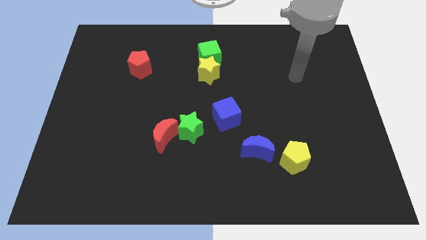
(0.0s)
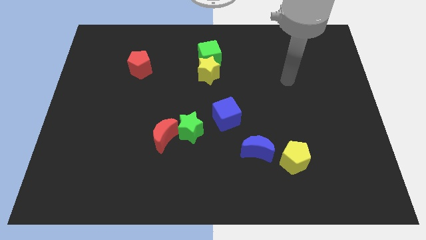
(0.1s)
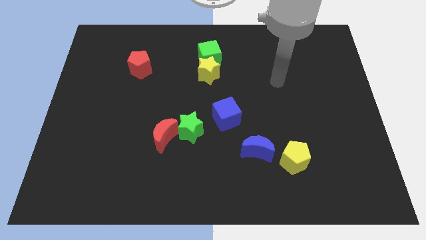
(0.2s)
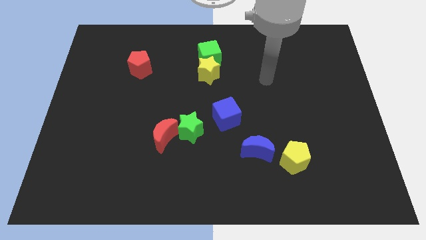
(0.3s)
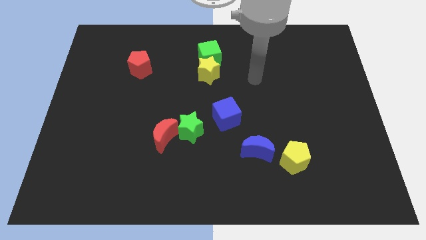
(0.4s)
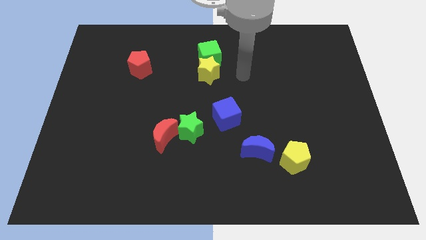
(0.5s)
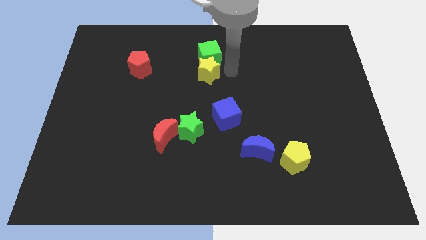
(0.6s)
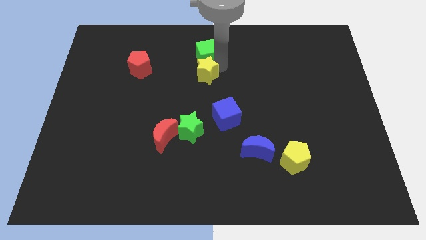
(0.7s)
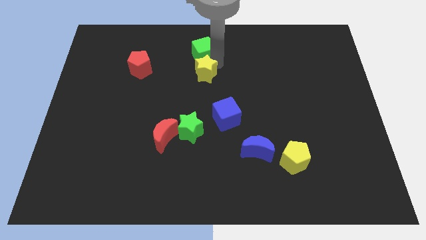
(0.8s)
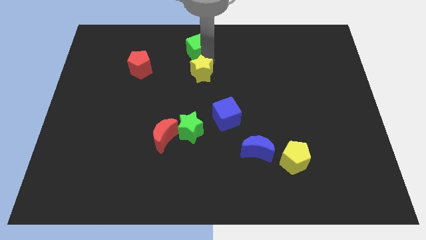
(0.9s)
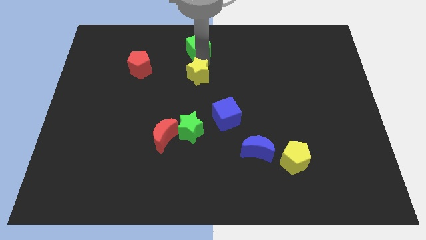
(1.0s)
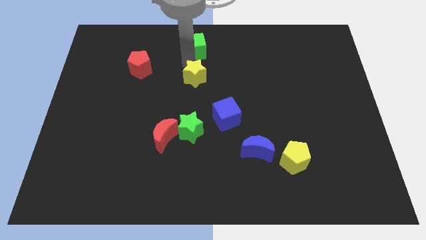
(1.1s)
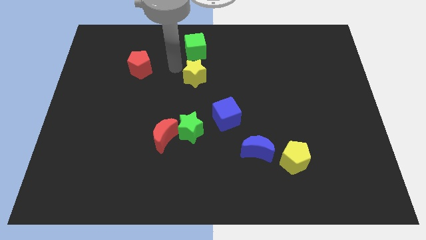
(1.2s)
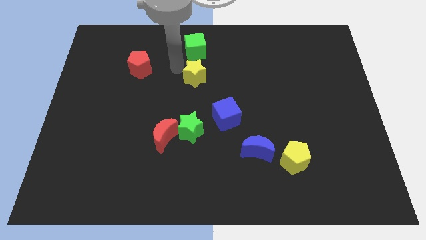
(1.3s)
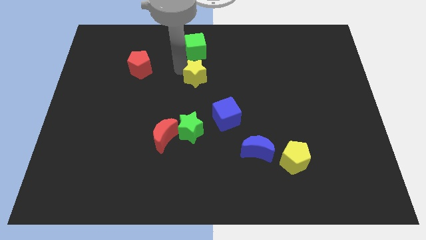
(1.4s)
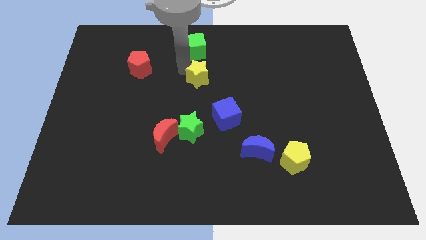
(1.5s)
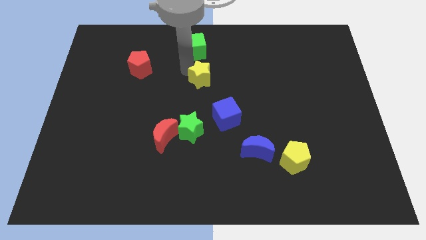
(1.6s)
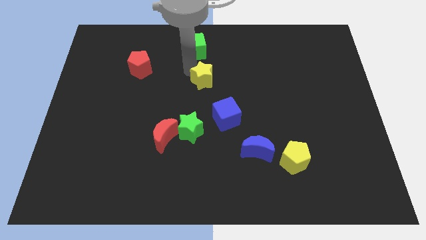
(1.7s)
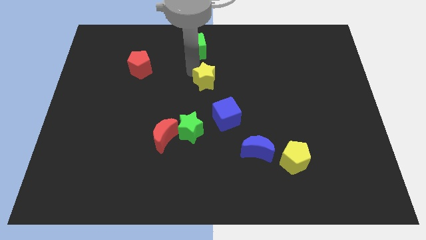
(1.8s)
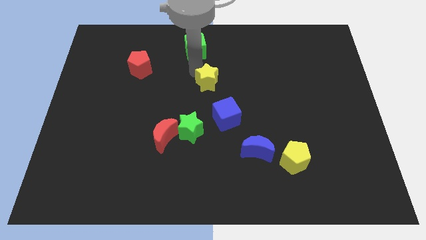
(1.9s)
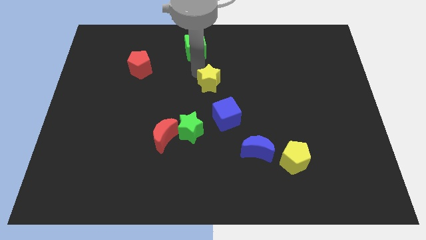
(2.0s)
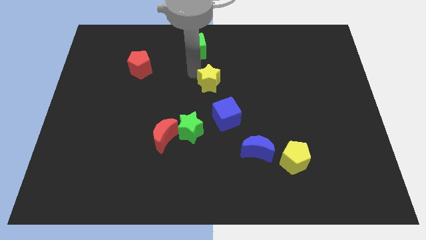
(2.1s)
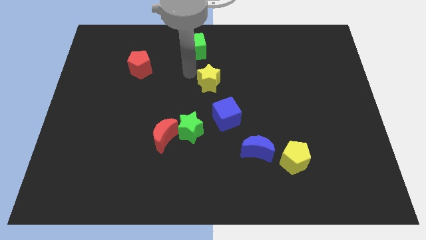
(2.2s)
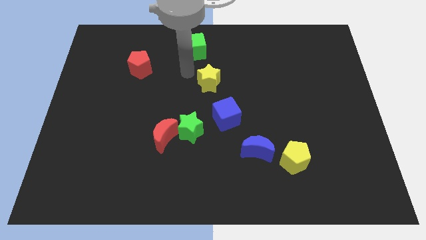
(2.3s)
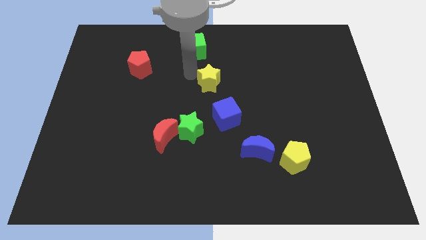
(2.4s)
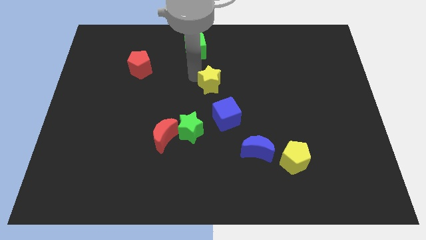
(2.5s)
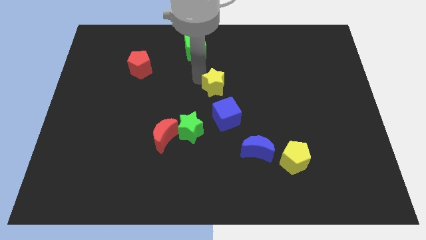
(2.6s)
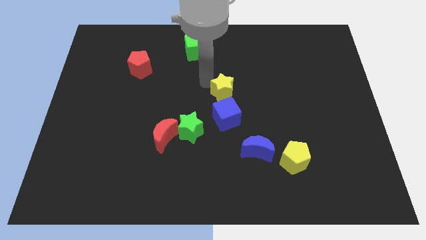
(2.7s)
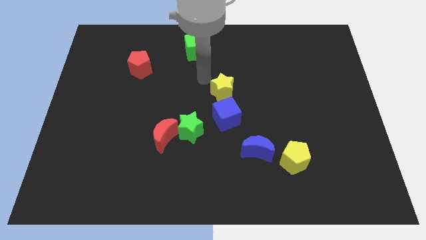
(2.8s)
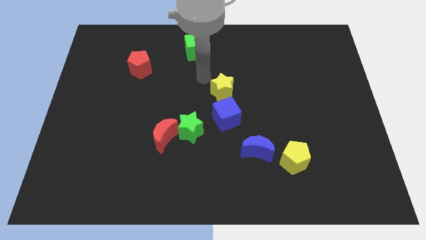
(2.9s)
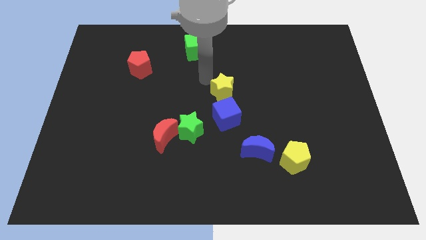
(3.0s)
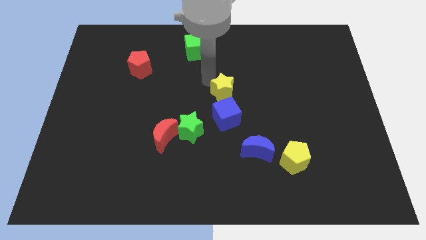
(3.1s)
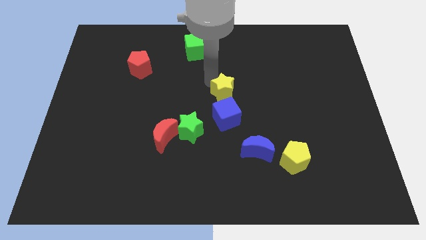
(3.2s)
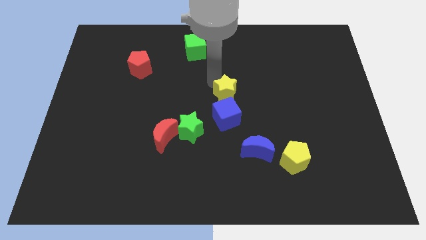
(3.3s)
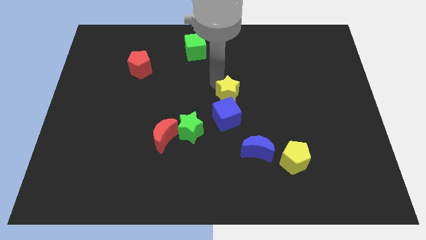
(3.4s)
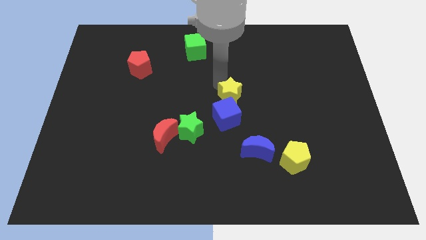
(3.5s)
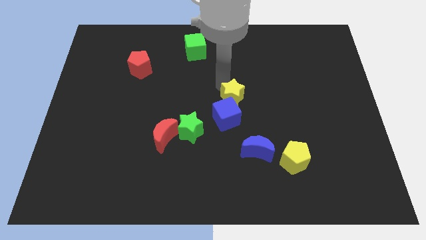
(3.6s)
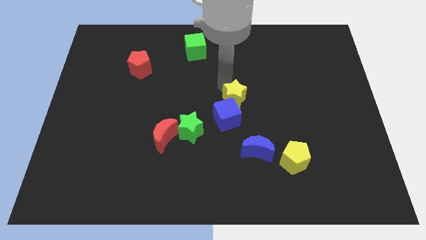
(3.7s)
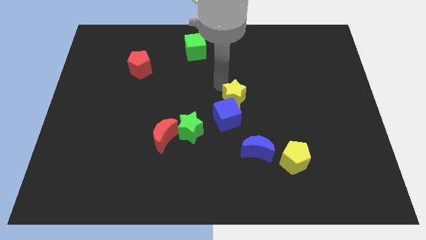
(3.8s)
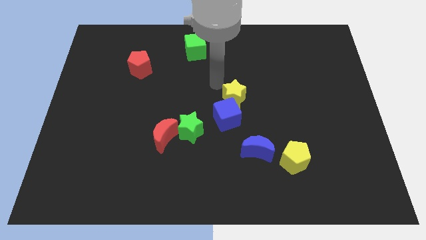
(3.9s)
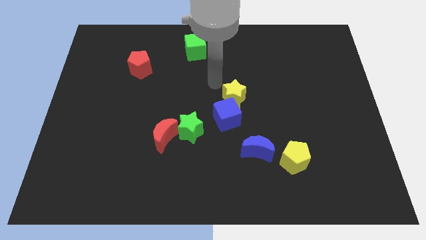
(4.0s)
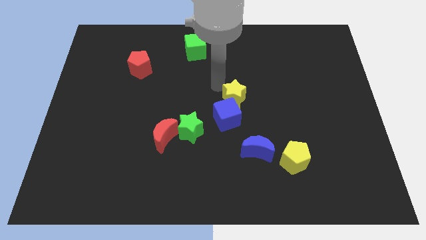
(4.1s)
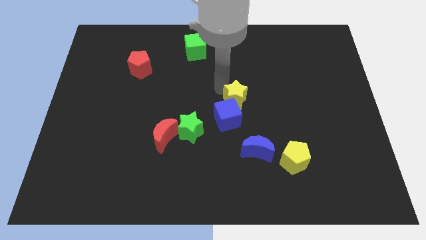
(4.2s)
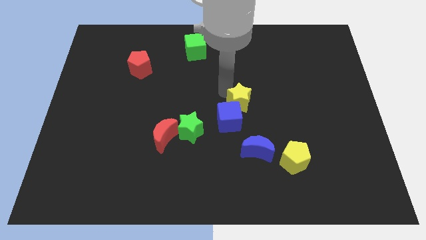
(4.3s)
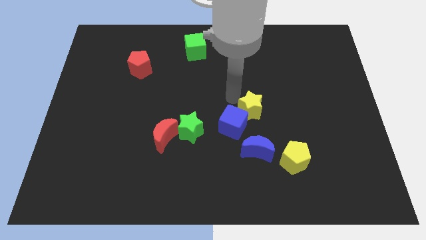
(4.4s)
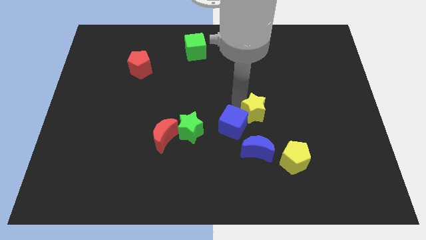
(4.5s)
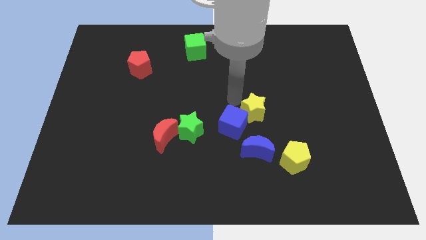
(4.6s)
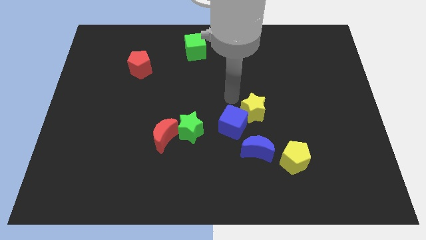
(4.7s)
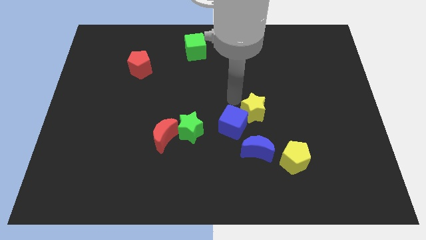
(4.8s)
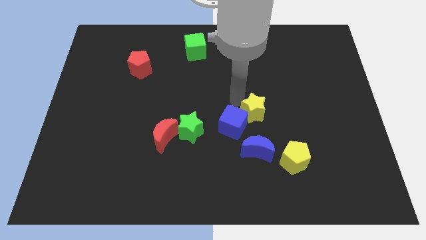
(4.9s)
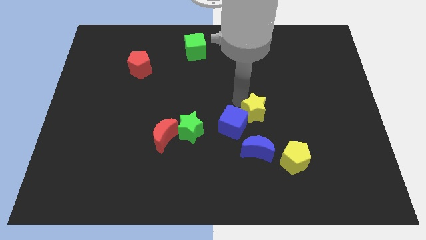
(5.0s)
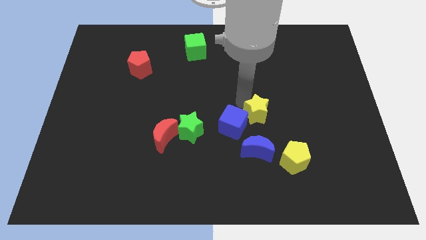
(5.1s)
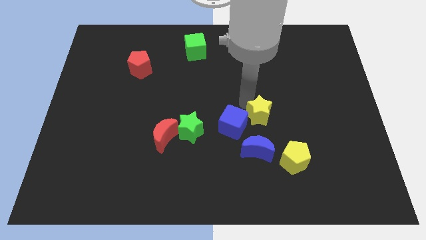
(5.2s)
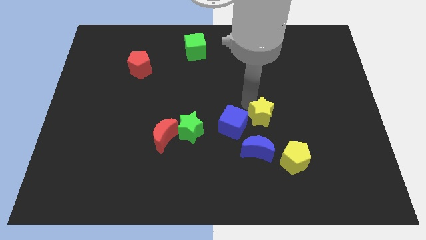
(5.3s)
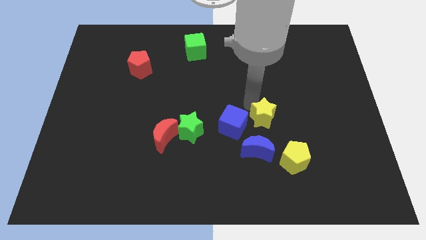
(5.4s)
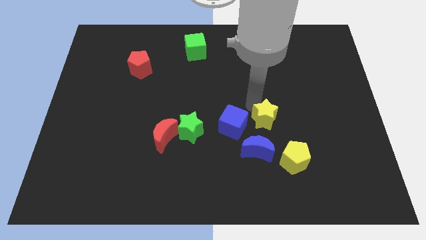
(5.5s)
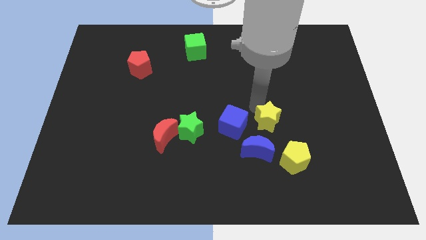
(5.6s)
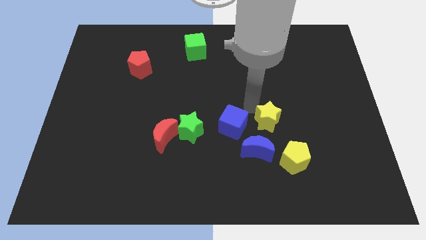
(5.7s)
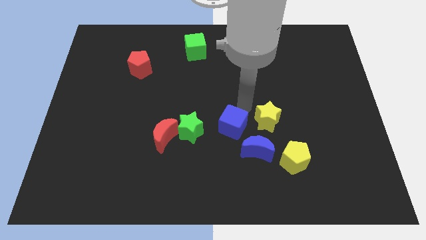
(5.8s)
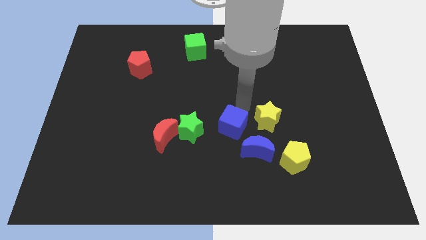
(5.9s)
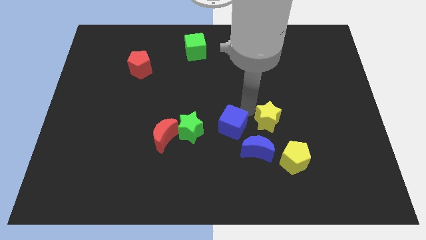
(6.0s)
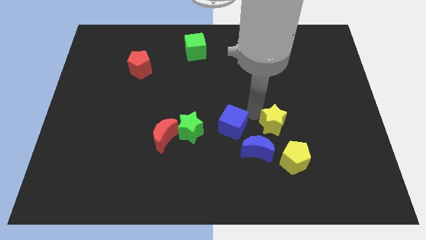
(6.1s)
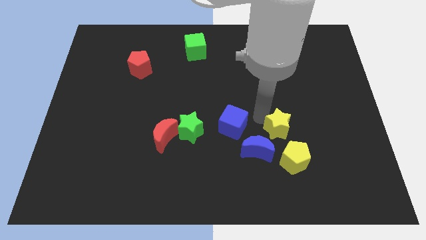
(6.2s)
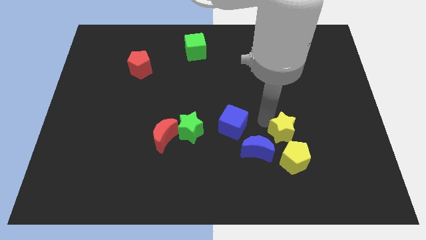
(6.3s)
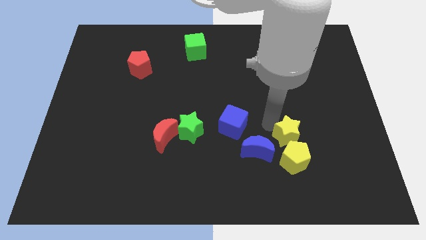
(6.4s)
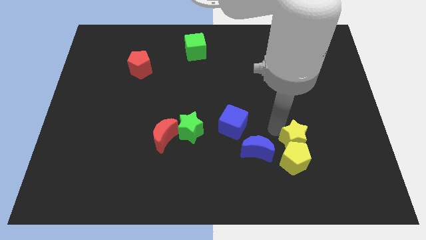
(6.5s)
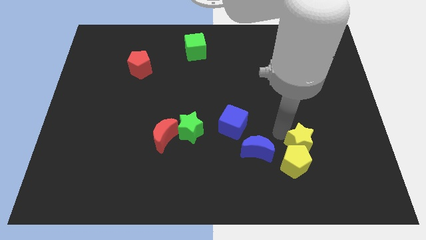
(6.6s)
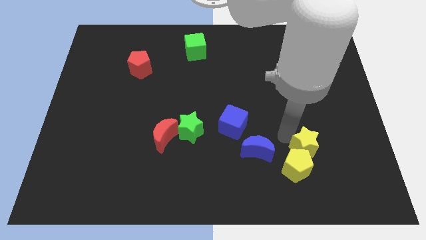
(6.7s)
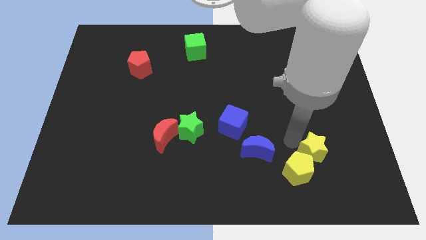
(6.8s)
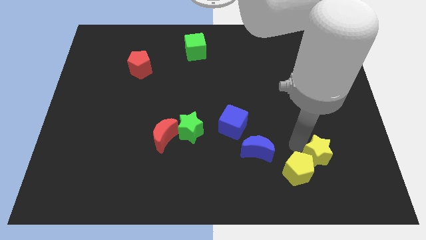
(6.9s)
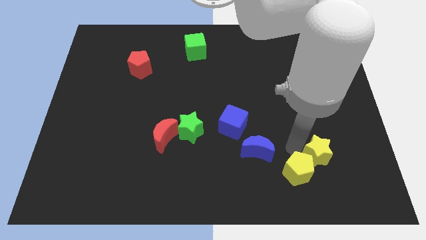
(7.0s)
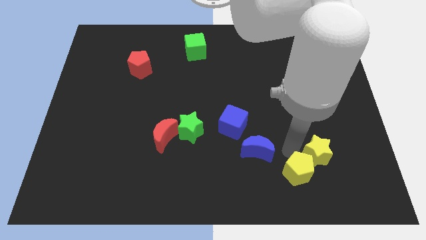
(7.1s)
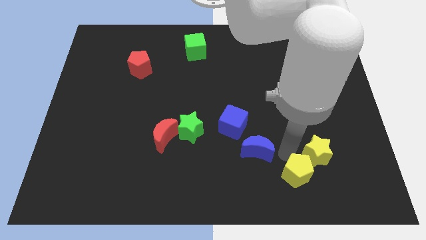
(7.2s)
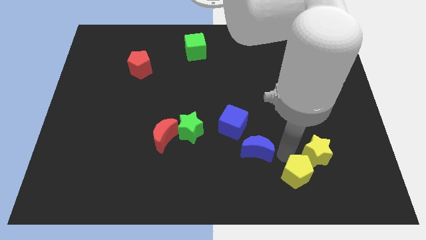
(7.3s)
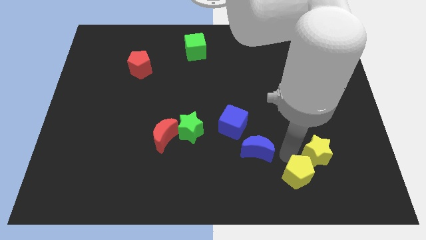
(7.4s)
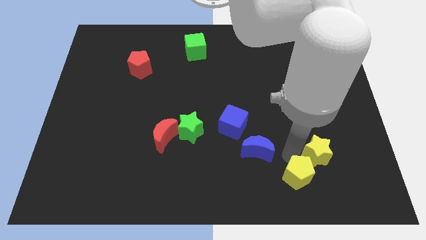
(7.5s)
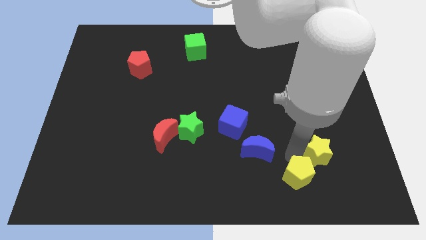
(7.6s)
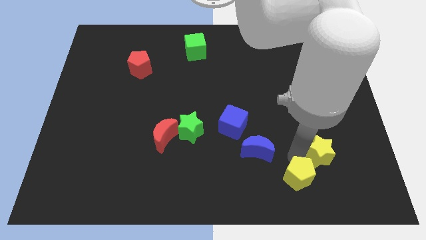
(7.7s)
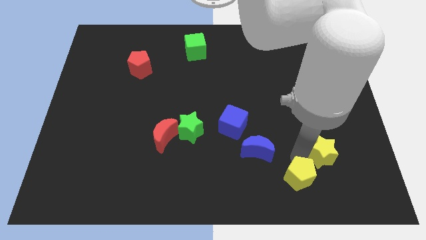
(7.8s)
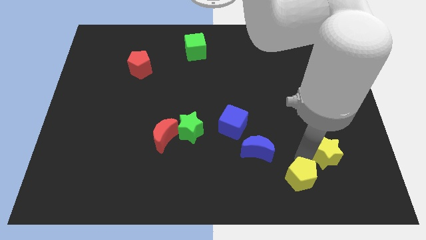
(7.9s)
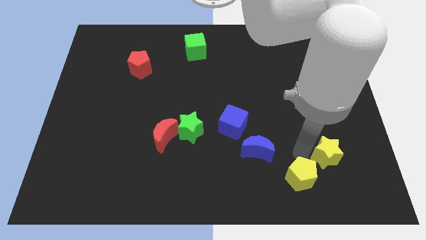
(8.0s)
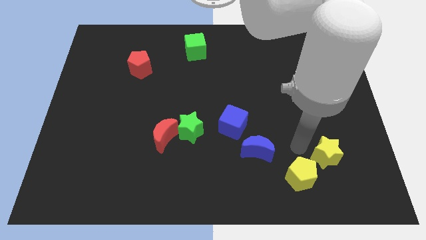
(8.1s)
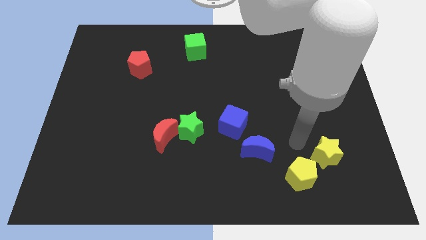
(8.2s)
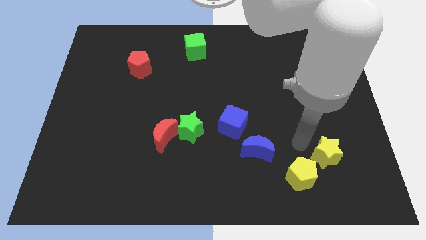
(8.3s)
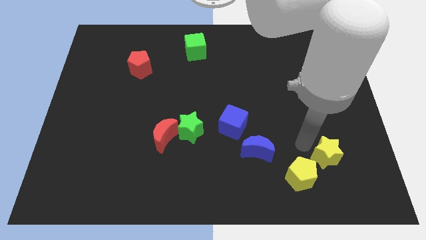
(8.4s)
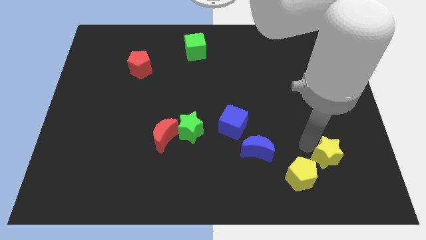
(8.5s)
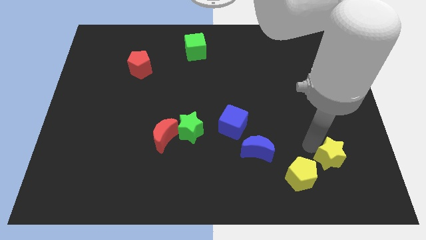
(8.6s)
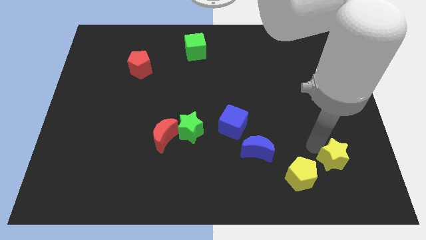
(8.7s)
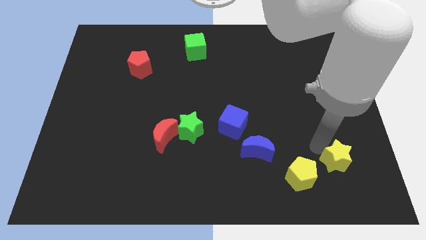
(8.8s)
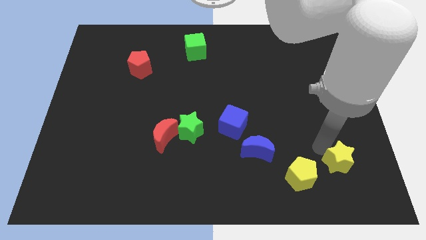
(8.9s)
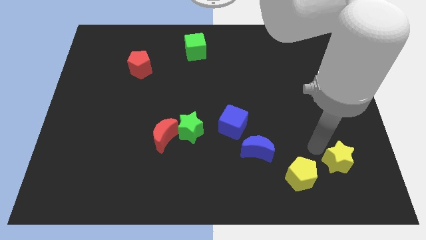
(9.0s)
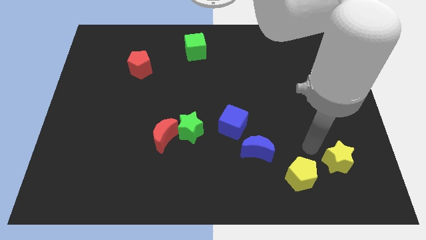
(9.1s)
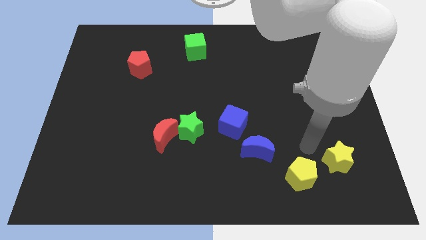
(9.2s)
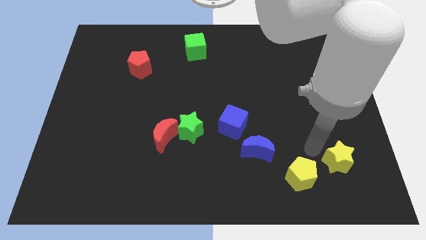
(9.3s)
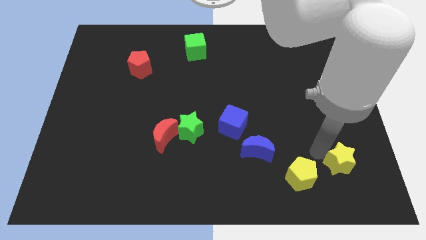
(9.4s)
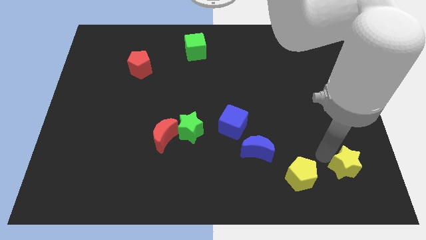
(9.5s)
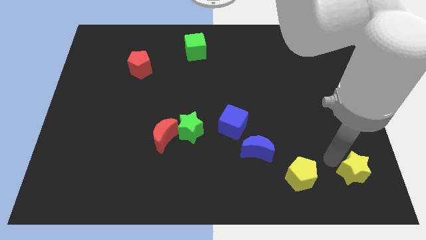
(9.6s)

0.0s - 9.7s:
push the yellow star to the bottom right of the board
